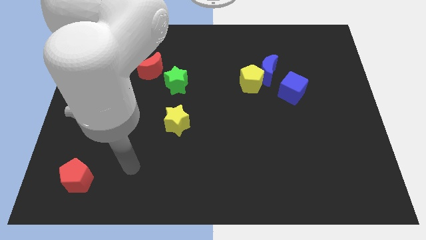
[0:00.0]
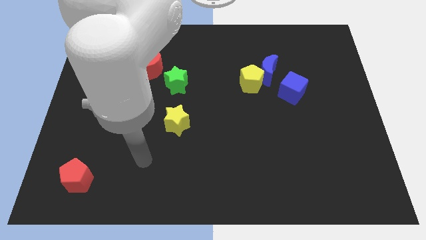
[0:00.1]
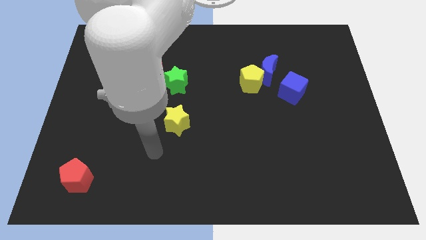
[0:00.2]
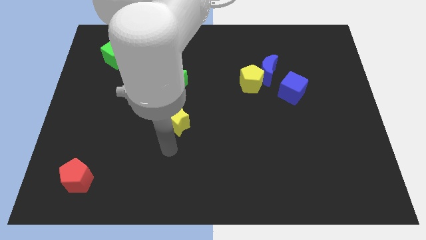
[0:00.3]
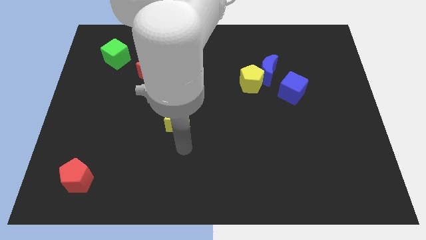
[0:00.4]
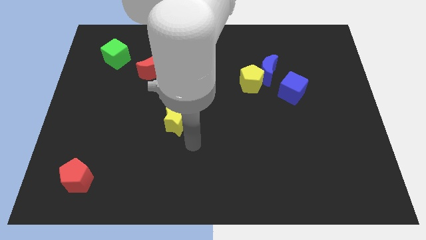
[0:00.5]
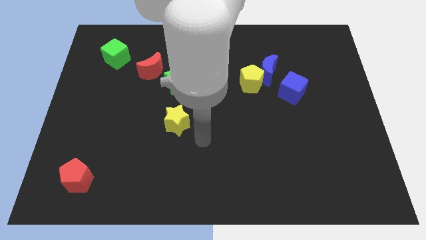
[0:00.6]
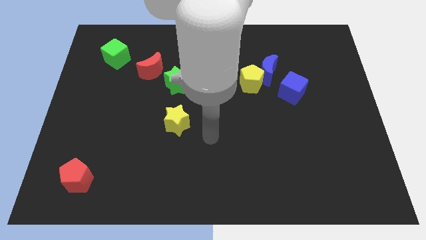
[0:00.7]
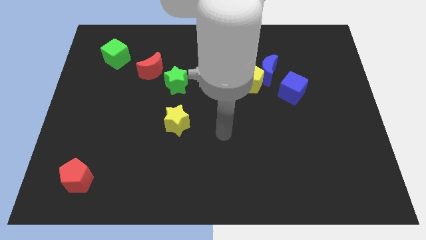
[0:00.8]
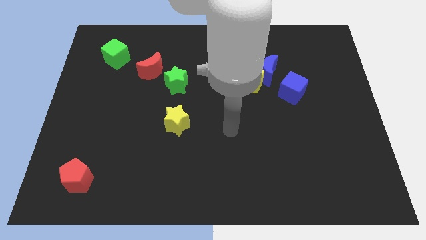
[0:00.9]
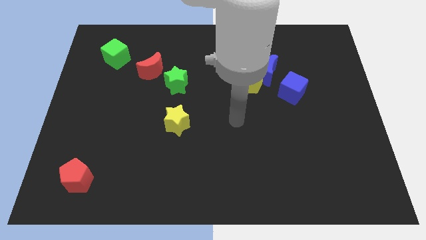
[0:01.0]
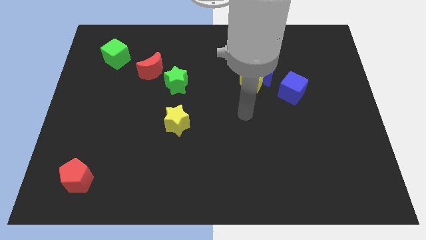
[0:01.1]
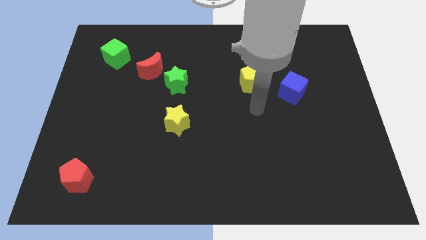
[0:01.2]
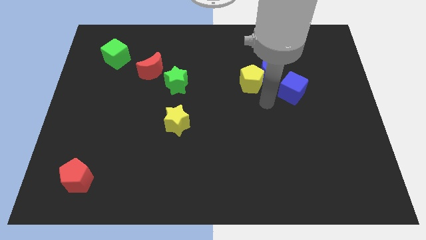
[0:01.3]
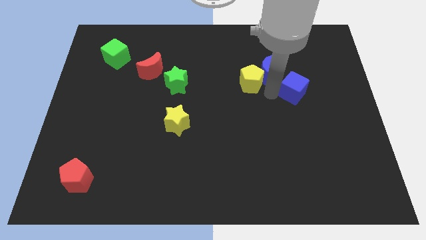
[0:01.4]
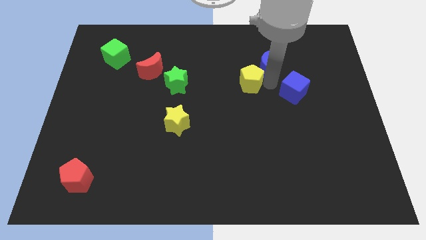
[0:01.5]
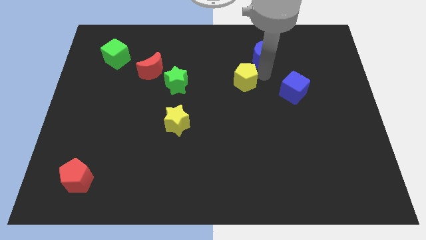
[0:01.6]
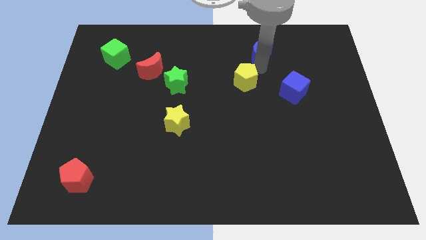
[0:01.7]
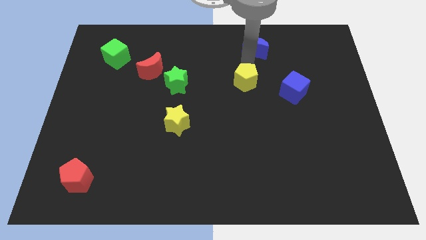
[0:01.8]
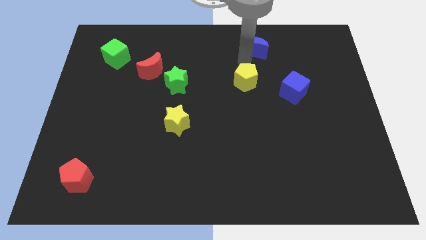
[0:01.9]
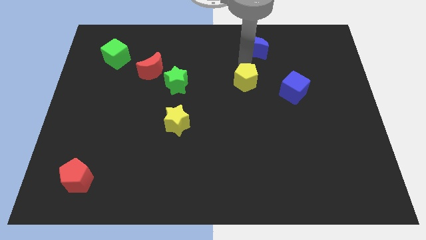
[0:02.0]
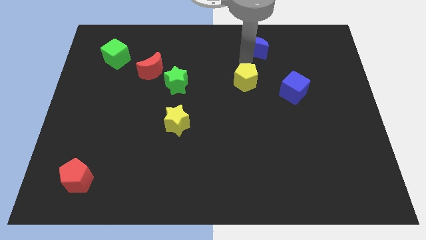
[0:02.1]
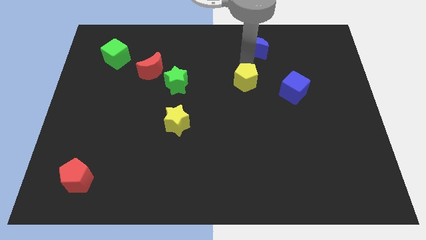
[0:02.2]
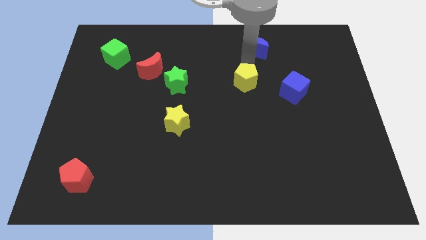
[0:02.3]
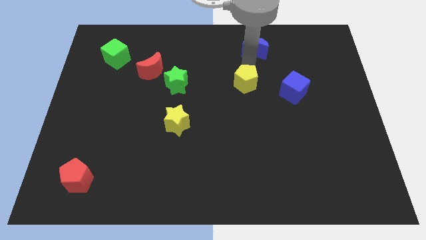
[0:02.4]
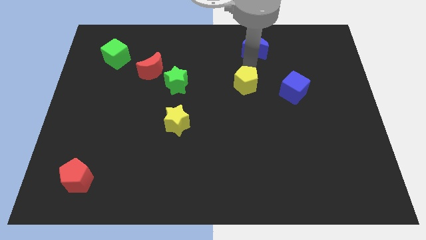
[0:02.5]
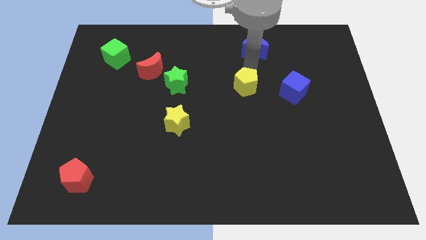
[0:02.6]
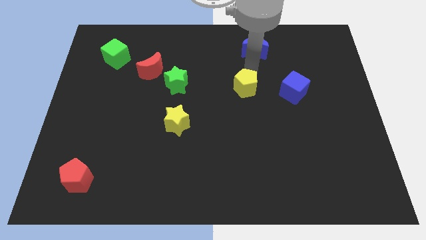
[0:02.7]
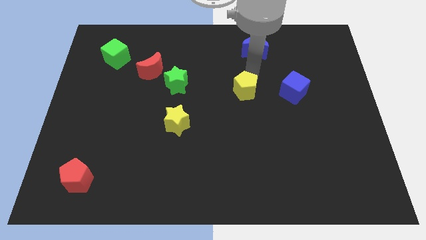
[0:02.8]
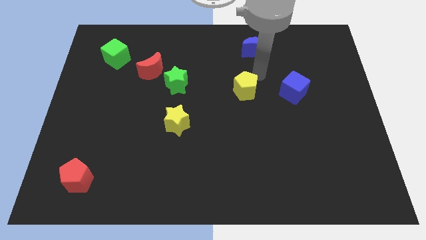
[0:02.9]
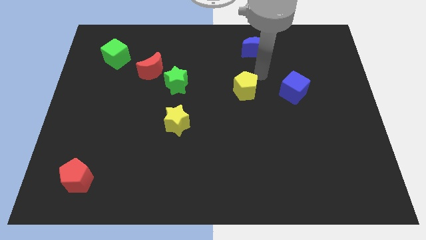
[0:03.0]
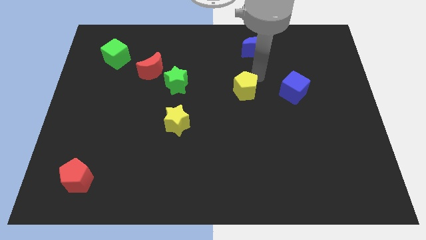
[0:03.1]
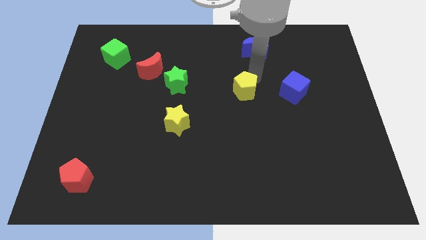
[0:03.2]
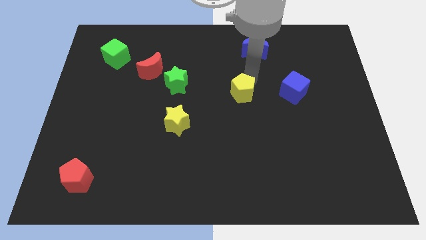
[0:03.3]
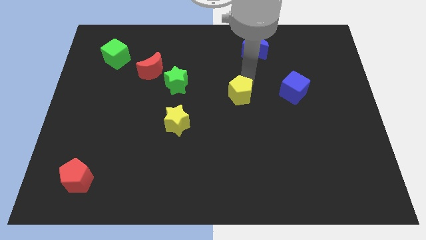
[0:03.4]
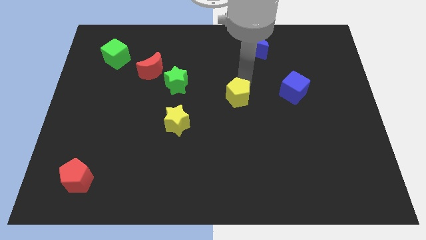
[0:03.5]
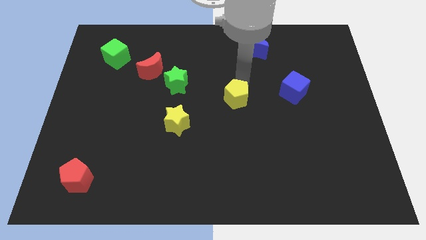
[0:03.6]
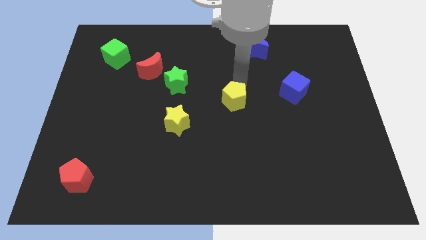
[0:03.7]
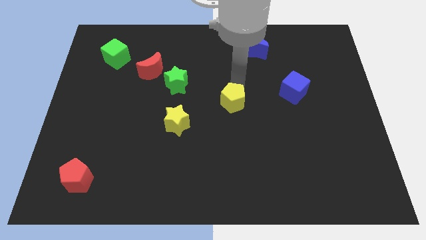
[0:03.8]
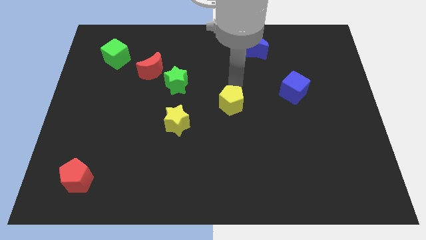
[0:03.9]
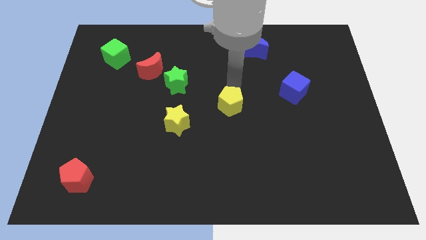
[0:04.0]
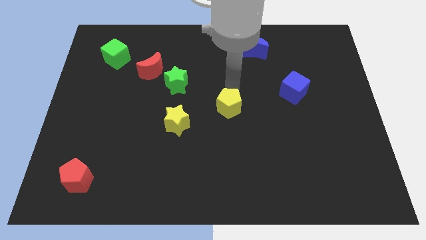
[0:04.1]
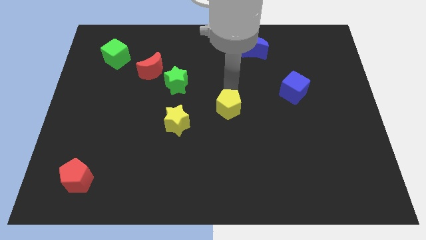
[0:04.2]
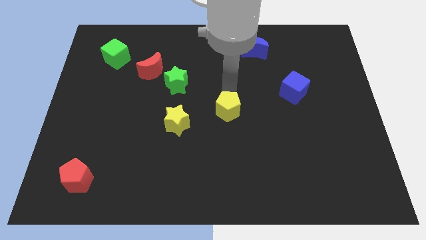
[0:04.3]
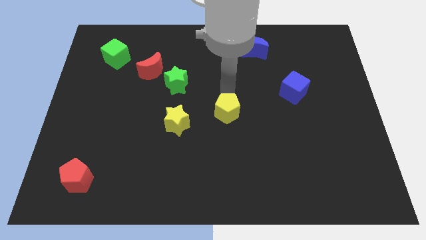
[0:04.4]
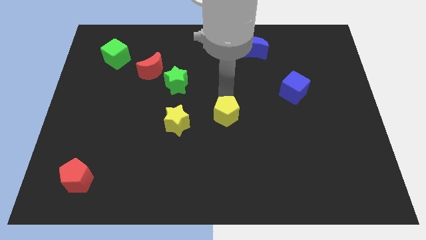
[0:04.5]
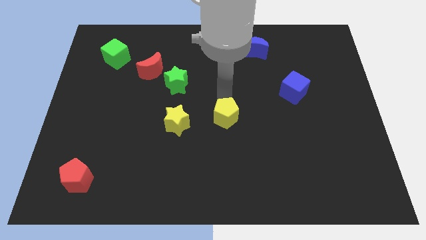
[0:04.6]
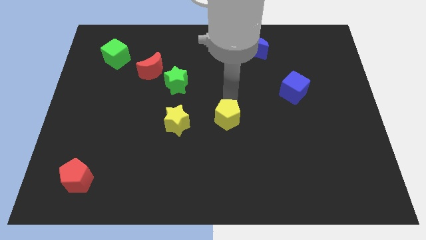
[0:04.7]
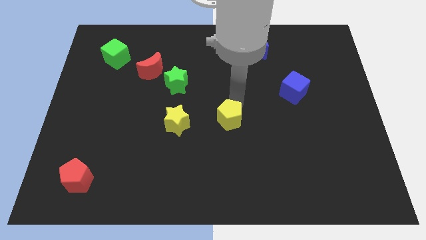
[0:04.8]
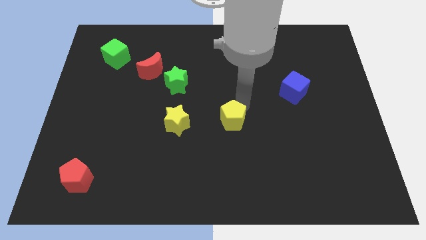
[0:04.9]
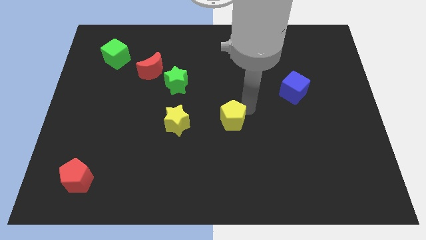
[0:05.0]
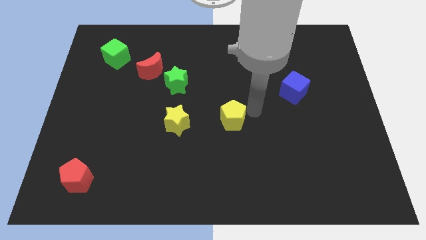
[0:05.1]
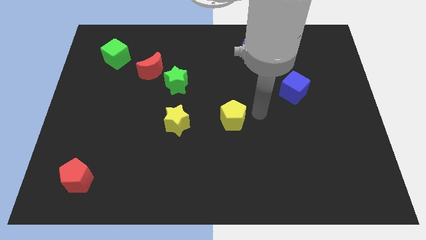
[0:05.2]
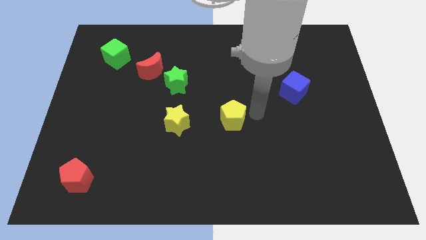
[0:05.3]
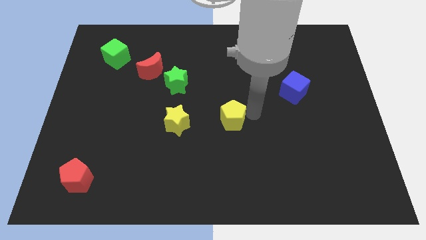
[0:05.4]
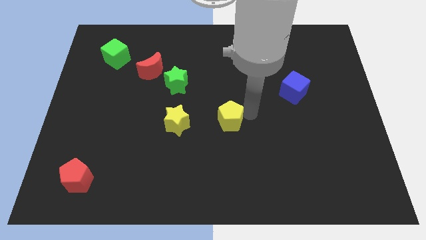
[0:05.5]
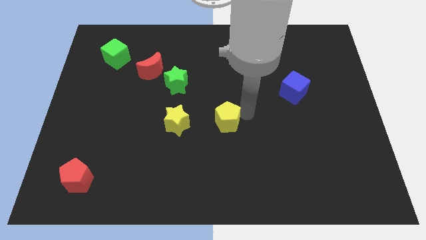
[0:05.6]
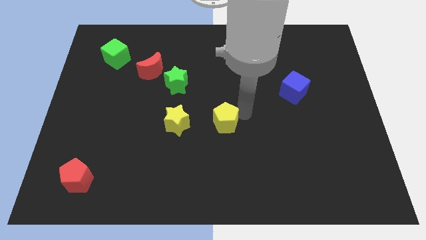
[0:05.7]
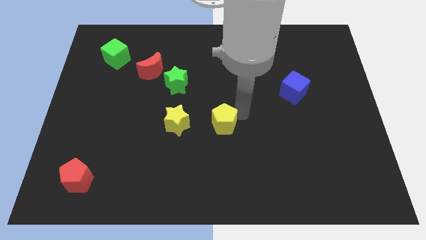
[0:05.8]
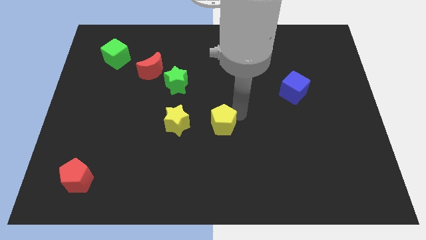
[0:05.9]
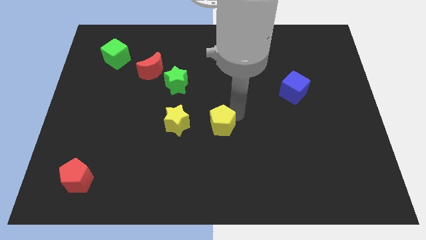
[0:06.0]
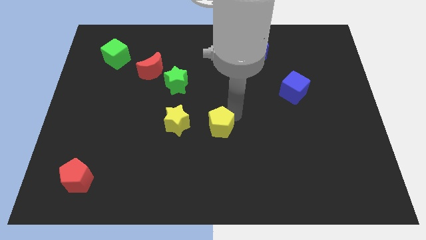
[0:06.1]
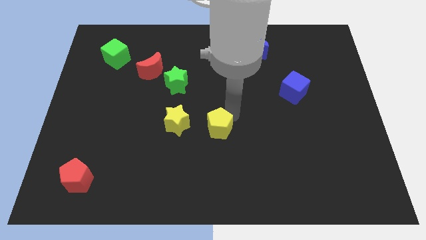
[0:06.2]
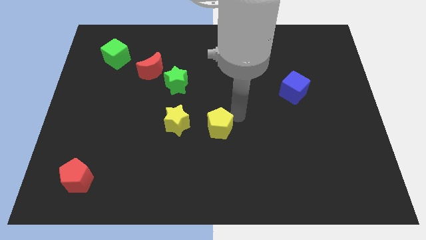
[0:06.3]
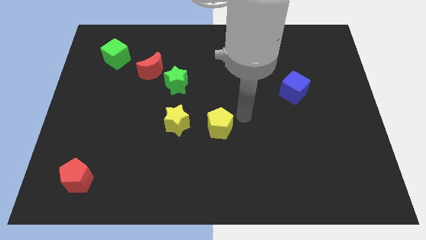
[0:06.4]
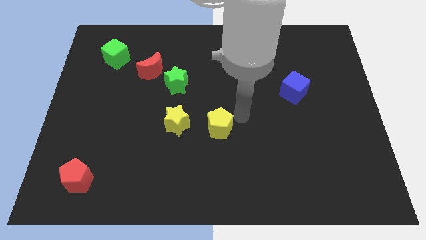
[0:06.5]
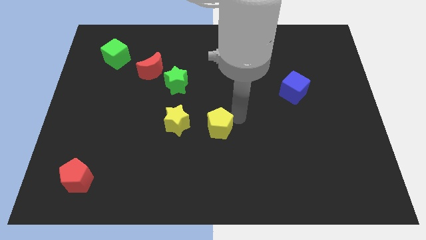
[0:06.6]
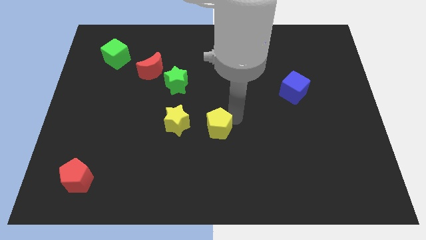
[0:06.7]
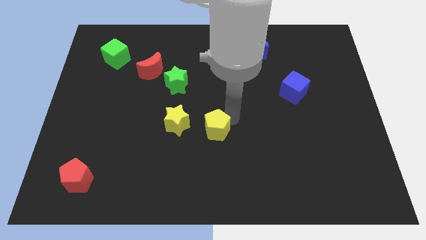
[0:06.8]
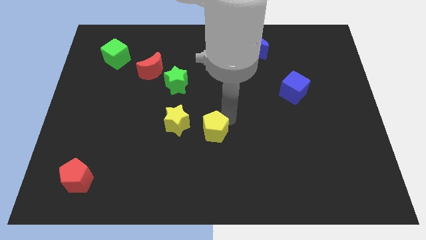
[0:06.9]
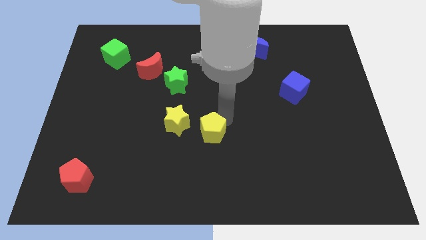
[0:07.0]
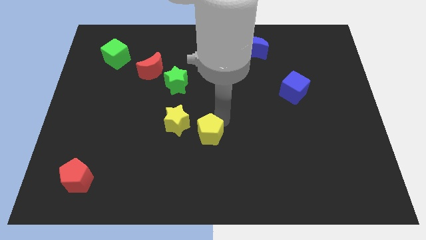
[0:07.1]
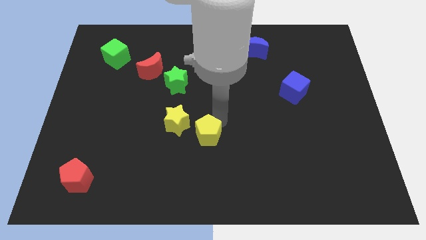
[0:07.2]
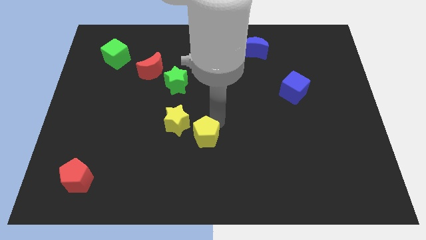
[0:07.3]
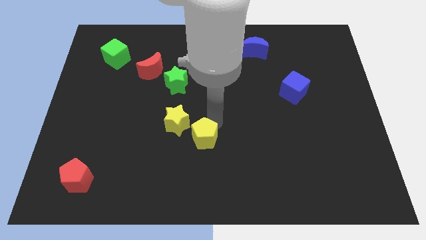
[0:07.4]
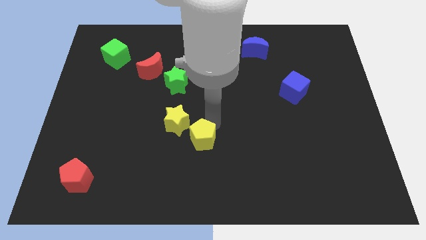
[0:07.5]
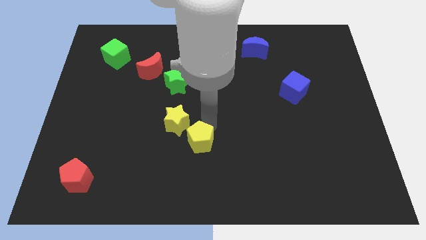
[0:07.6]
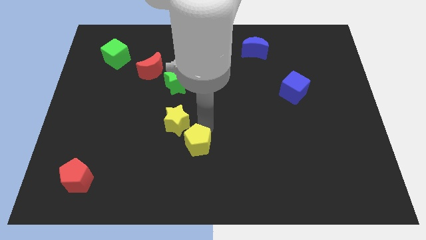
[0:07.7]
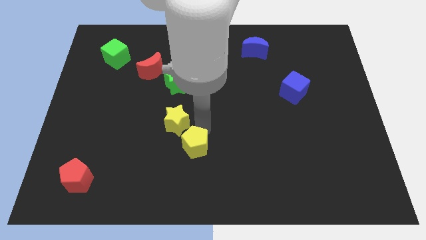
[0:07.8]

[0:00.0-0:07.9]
put the yellow pentagon to the bottom of the yellow star
